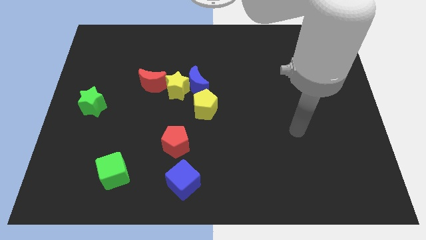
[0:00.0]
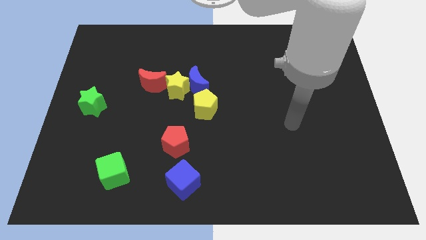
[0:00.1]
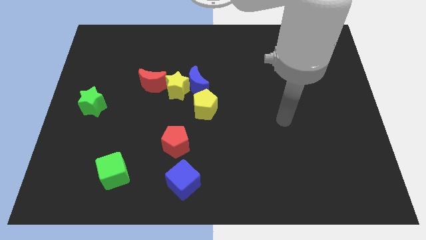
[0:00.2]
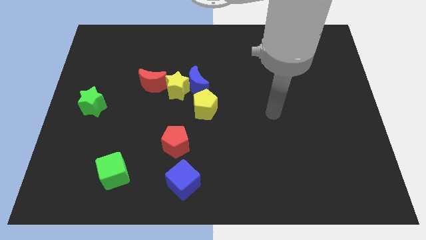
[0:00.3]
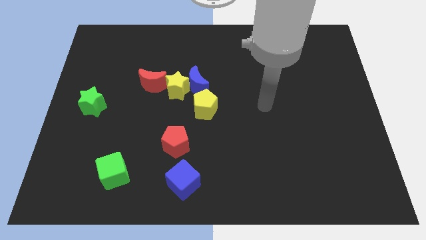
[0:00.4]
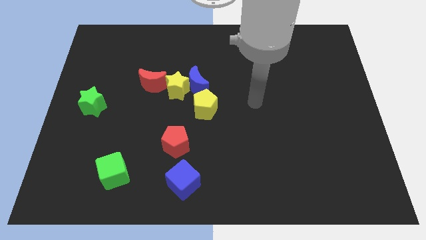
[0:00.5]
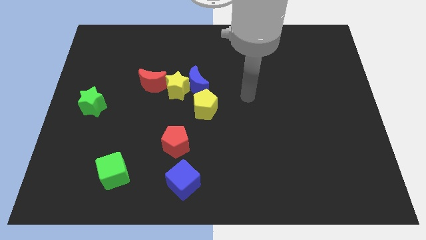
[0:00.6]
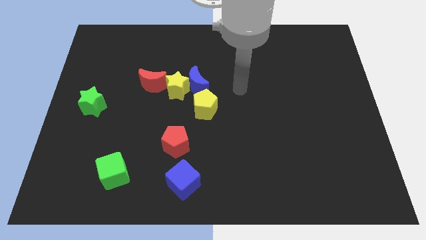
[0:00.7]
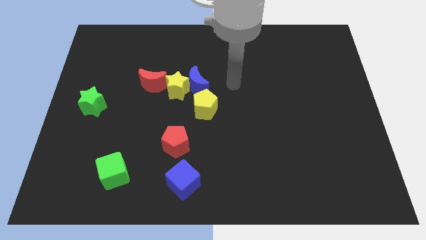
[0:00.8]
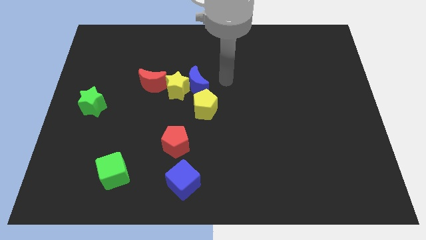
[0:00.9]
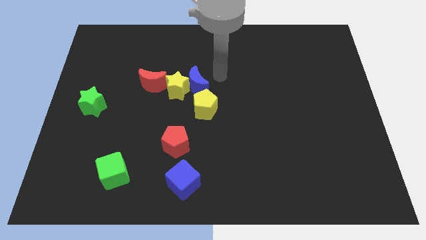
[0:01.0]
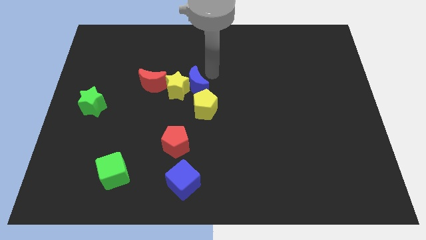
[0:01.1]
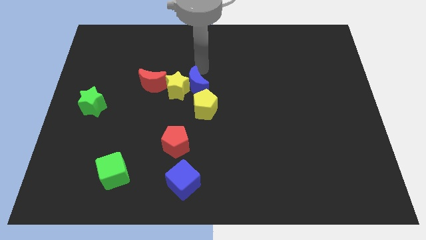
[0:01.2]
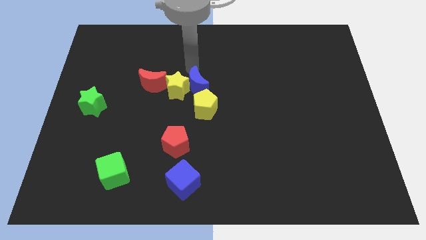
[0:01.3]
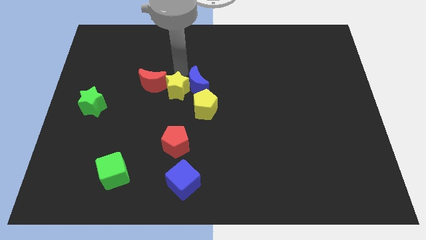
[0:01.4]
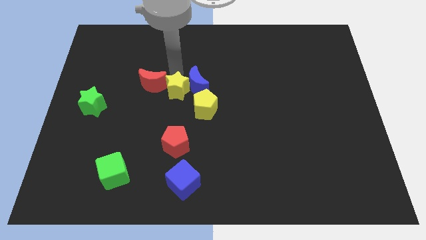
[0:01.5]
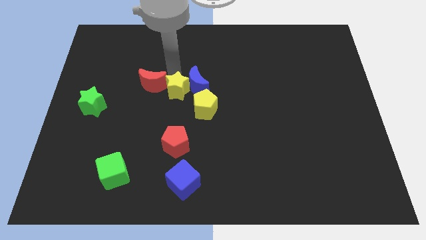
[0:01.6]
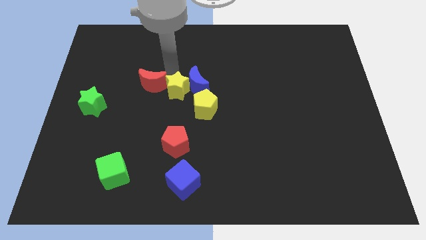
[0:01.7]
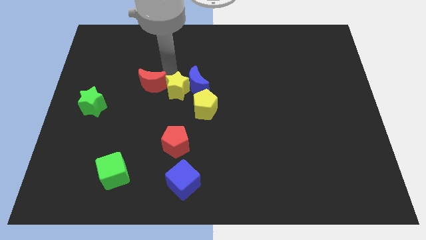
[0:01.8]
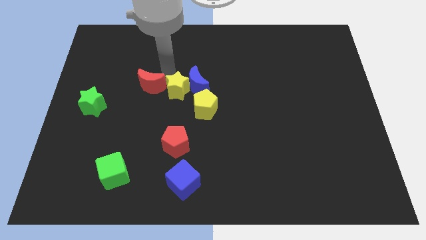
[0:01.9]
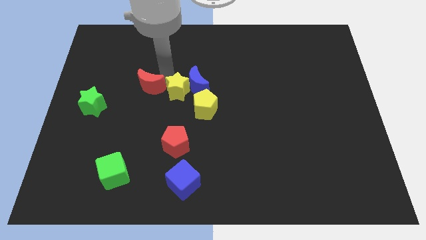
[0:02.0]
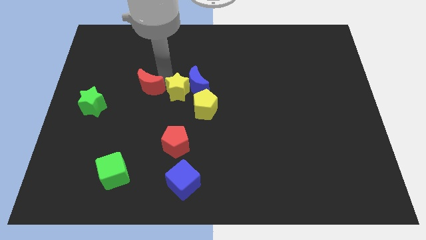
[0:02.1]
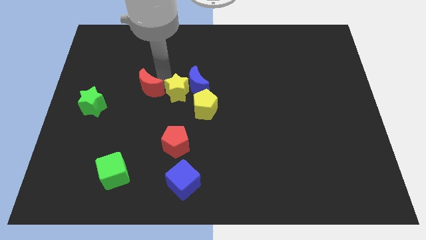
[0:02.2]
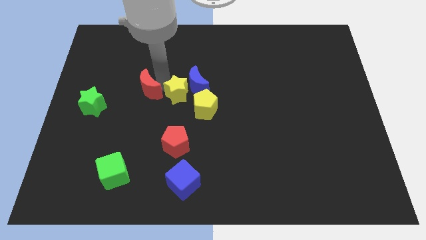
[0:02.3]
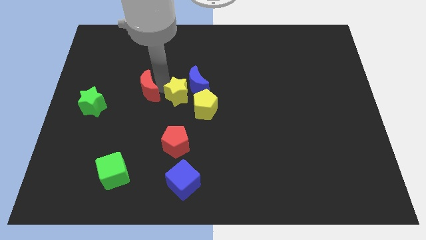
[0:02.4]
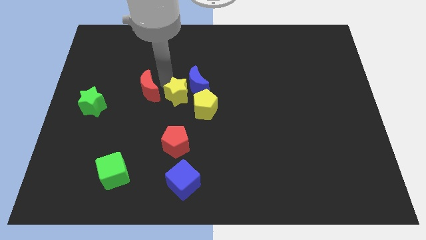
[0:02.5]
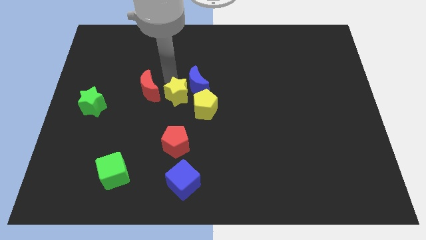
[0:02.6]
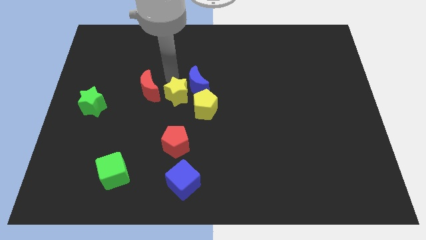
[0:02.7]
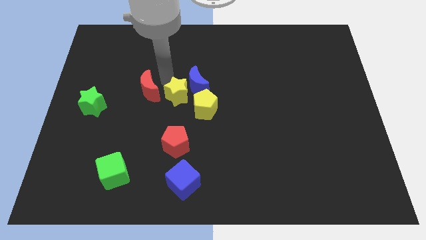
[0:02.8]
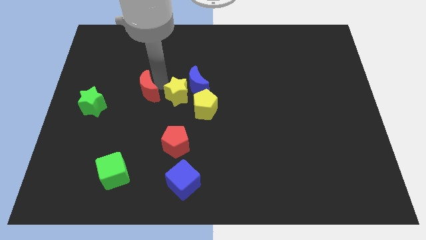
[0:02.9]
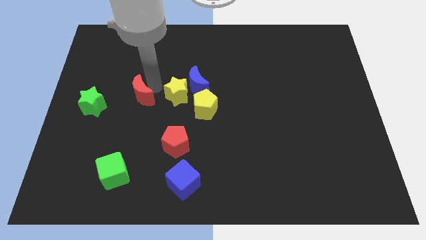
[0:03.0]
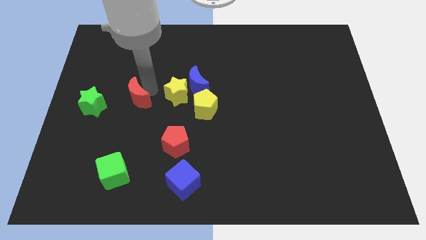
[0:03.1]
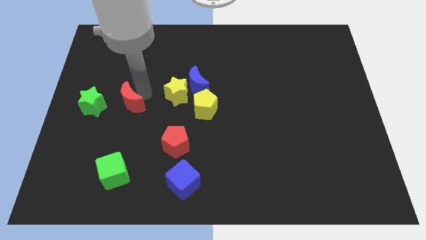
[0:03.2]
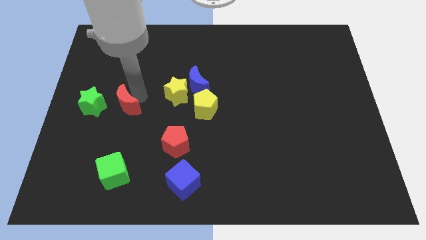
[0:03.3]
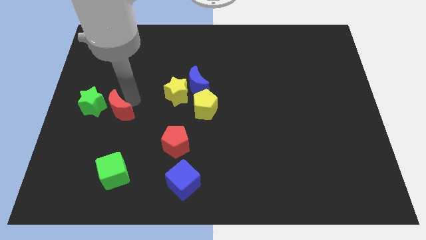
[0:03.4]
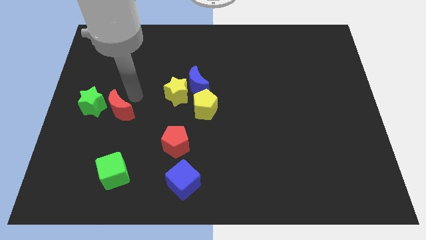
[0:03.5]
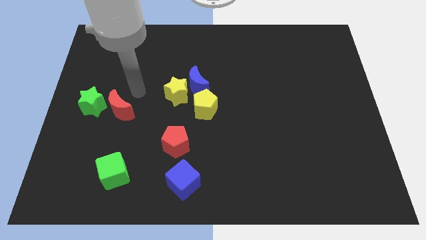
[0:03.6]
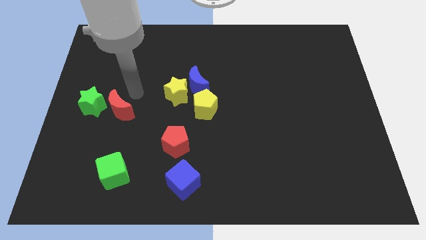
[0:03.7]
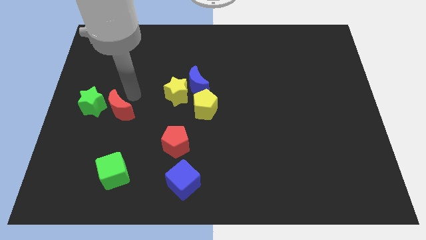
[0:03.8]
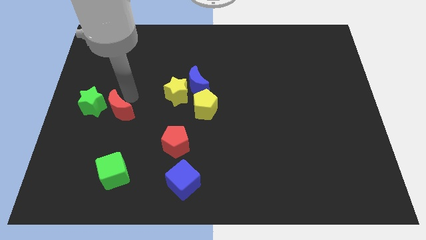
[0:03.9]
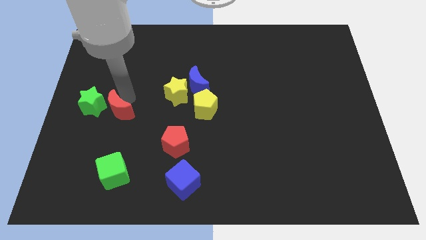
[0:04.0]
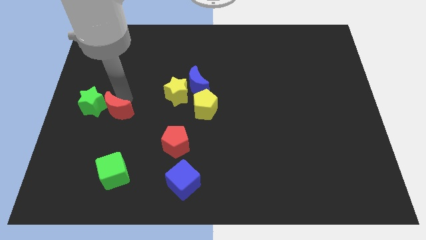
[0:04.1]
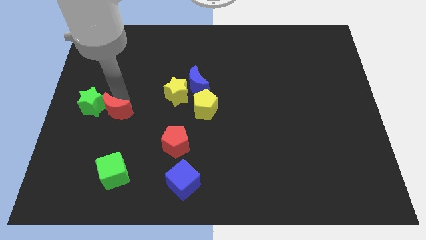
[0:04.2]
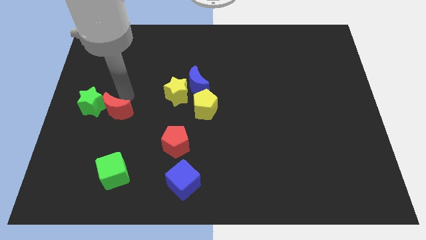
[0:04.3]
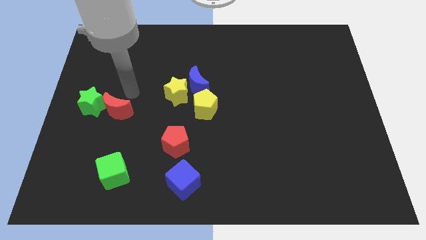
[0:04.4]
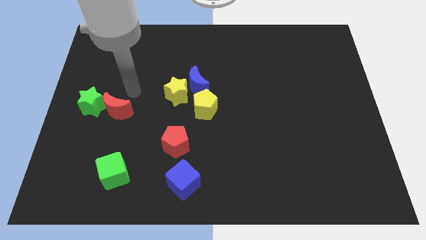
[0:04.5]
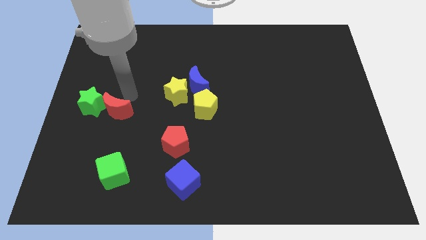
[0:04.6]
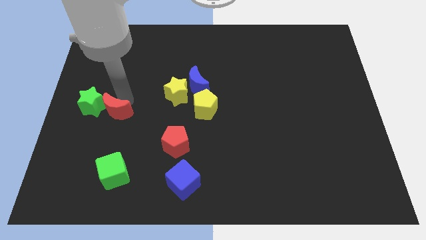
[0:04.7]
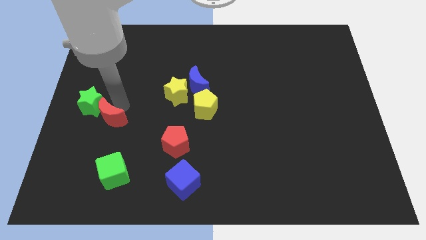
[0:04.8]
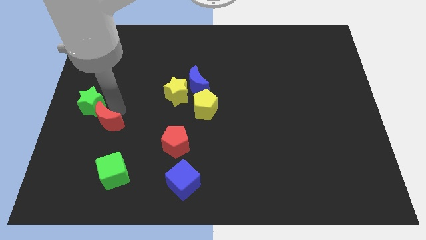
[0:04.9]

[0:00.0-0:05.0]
put the red moon to the bottom of the green star

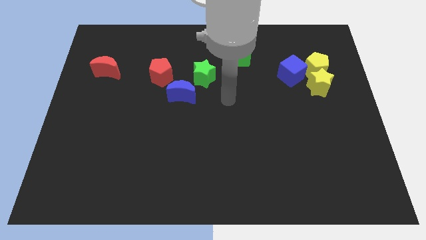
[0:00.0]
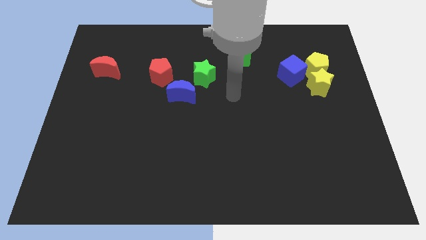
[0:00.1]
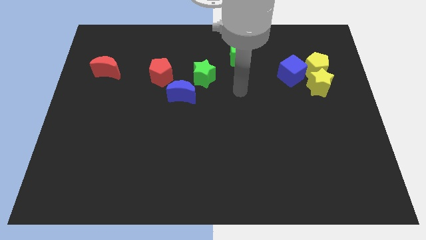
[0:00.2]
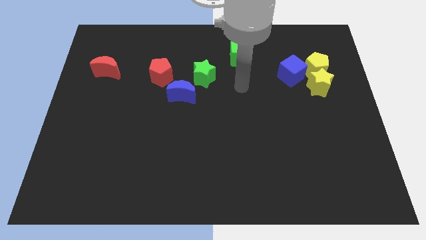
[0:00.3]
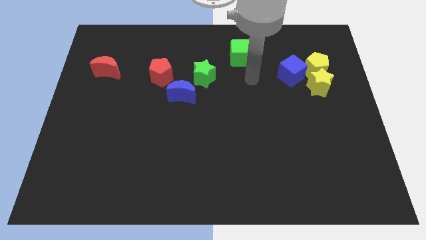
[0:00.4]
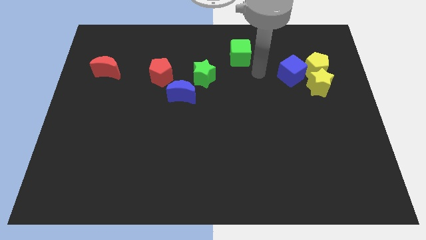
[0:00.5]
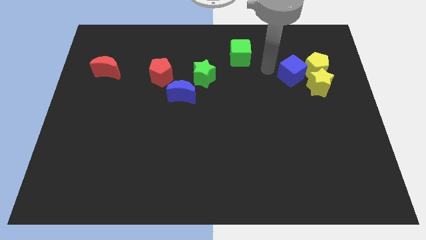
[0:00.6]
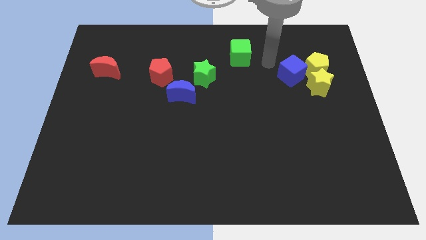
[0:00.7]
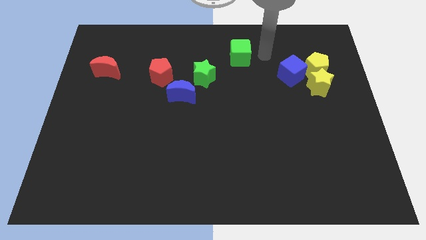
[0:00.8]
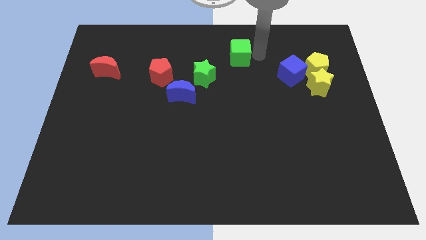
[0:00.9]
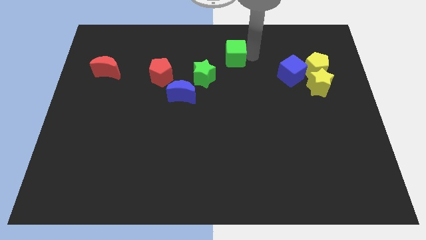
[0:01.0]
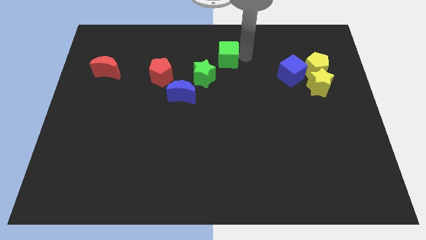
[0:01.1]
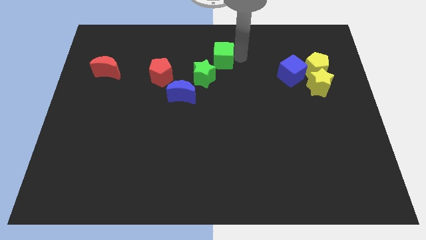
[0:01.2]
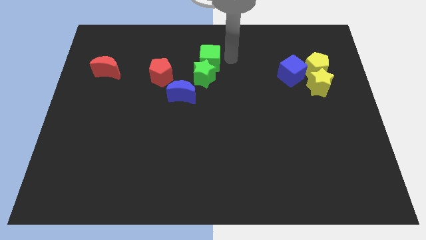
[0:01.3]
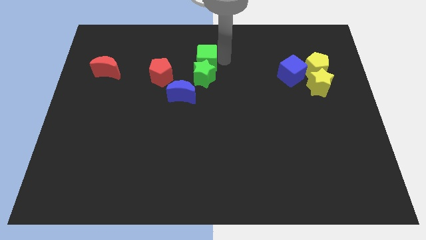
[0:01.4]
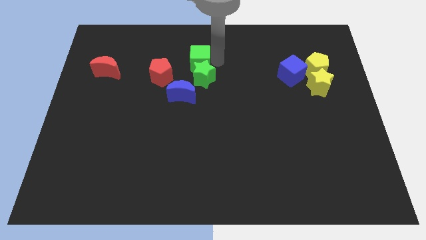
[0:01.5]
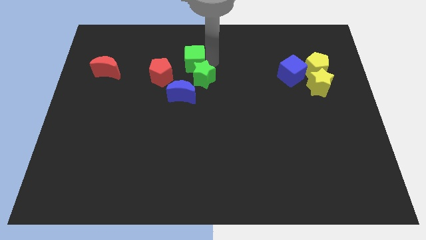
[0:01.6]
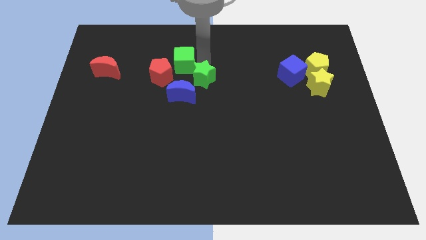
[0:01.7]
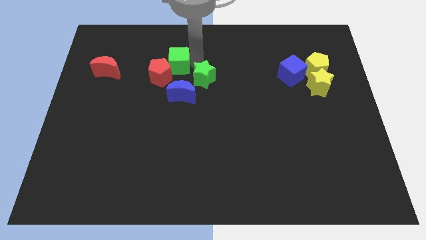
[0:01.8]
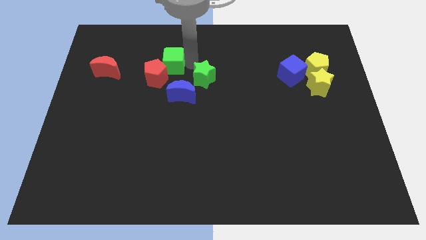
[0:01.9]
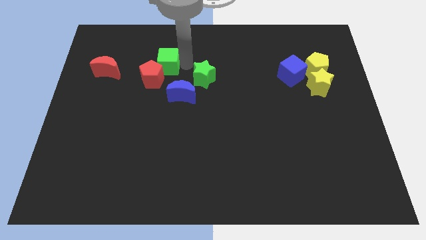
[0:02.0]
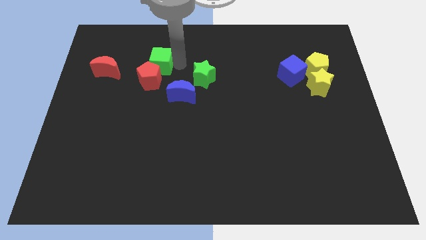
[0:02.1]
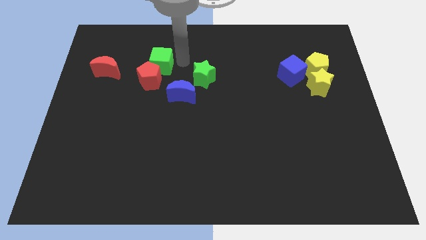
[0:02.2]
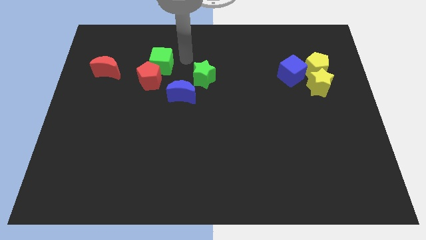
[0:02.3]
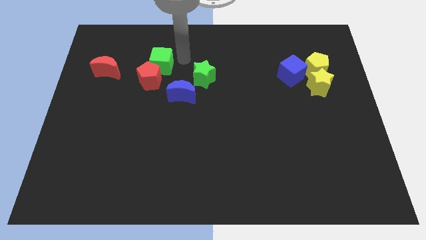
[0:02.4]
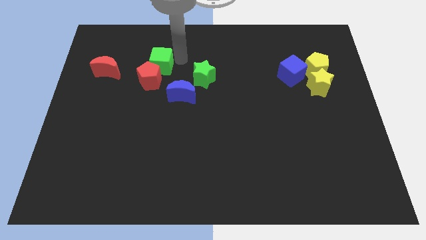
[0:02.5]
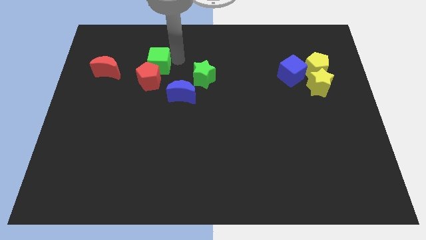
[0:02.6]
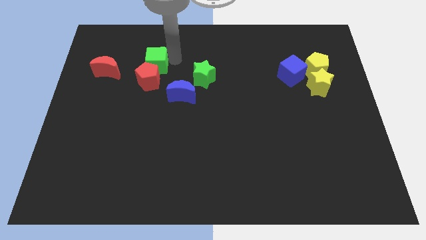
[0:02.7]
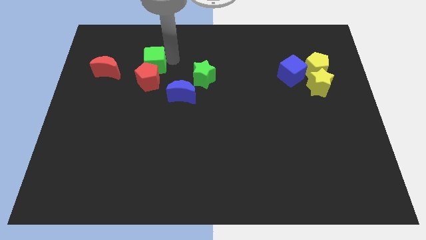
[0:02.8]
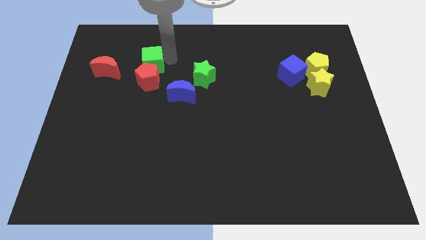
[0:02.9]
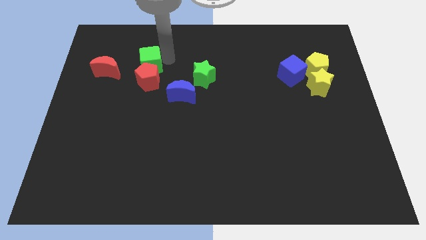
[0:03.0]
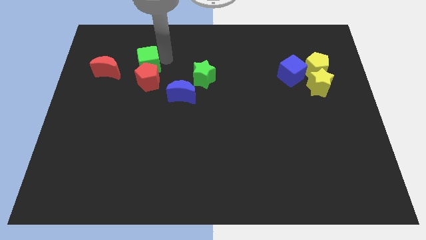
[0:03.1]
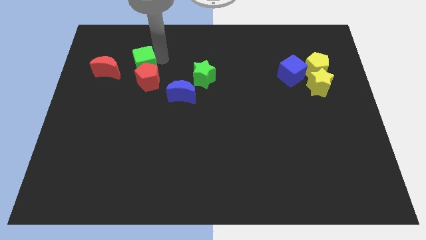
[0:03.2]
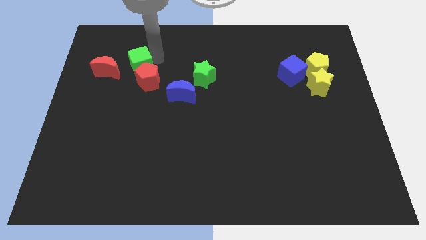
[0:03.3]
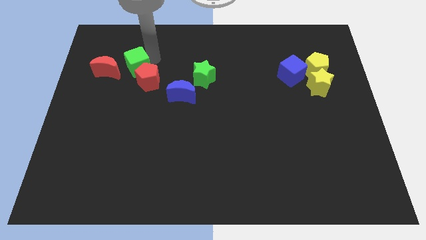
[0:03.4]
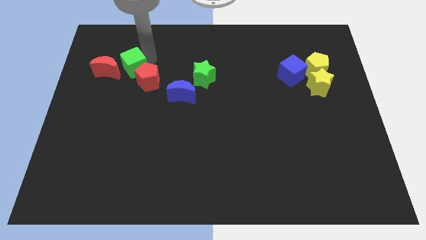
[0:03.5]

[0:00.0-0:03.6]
push the green cube just left of the red pentagon
